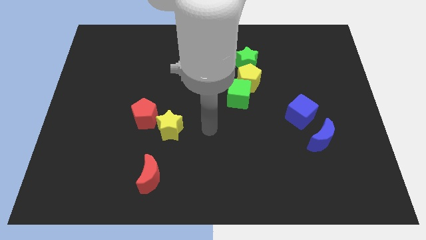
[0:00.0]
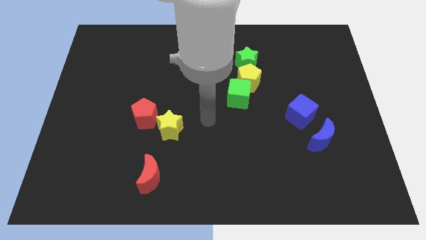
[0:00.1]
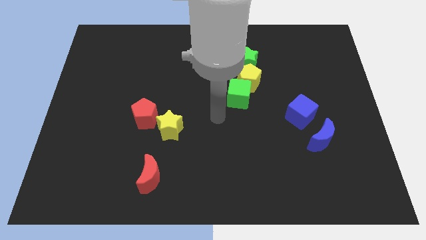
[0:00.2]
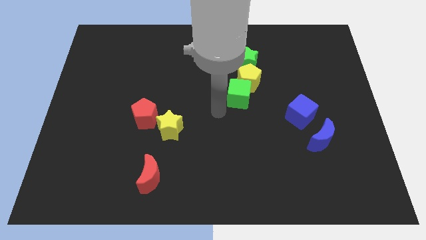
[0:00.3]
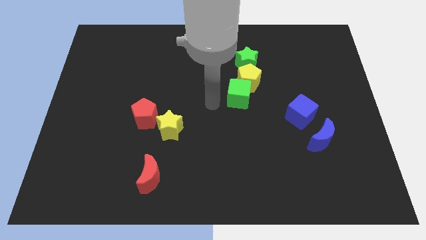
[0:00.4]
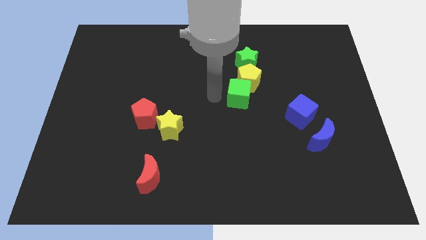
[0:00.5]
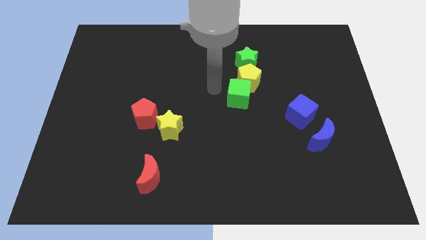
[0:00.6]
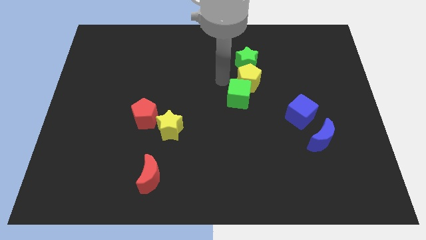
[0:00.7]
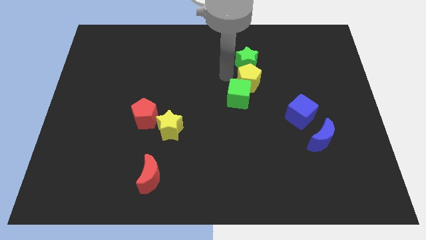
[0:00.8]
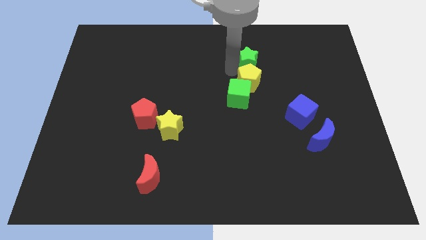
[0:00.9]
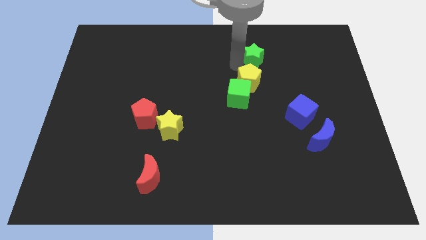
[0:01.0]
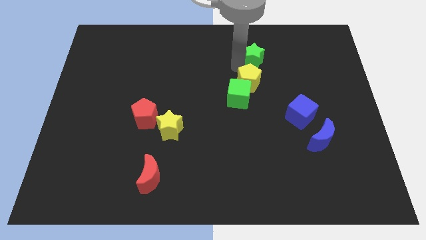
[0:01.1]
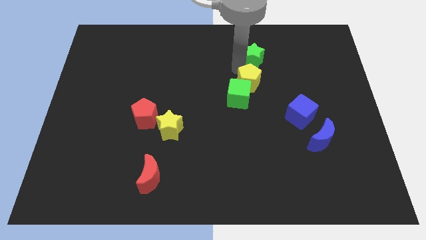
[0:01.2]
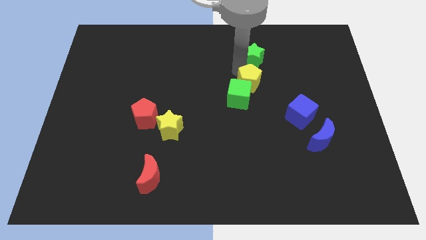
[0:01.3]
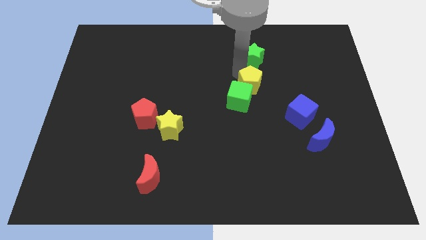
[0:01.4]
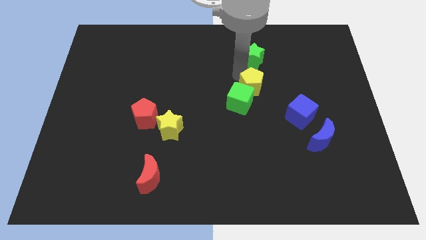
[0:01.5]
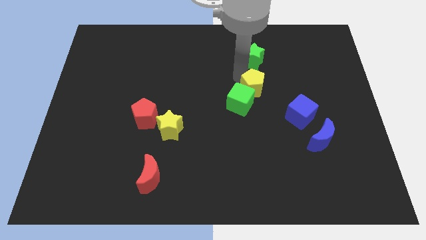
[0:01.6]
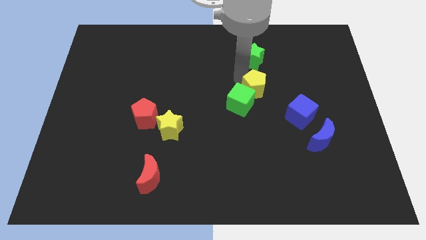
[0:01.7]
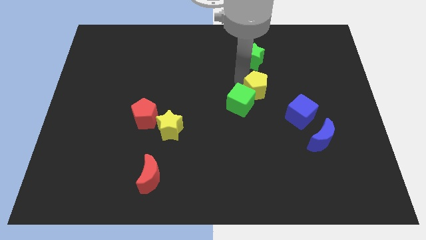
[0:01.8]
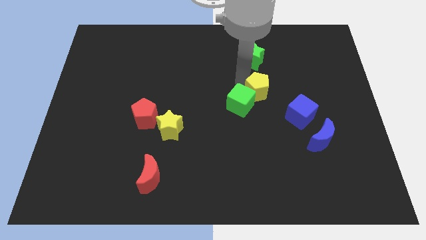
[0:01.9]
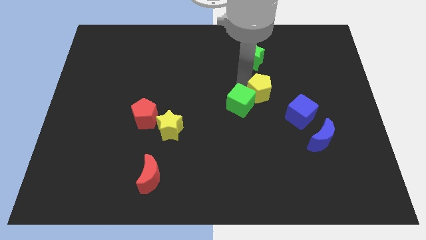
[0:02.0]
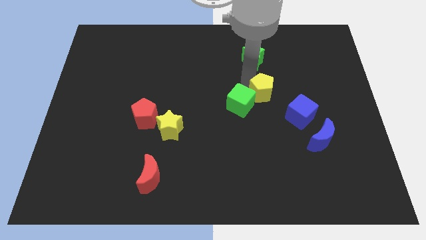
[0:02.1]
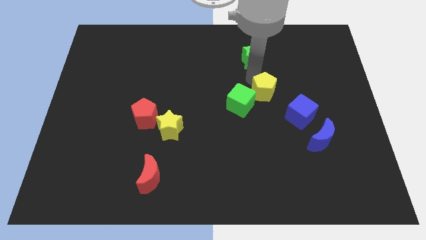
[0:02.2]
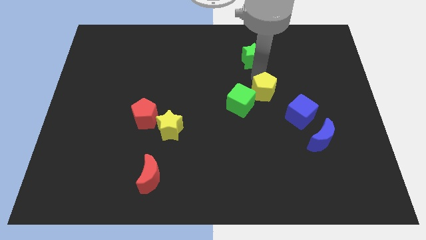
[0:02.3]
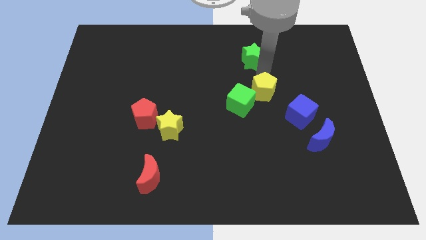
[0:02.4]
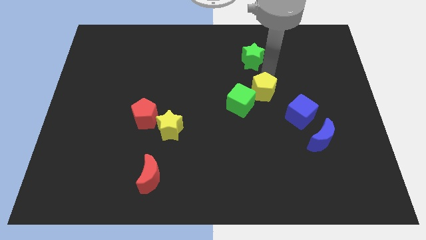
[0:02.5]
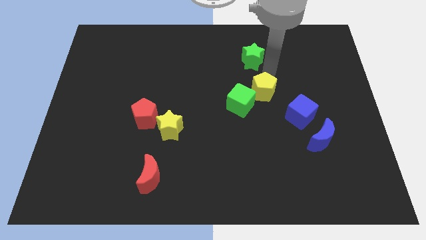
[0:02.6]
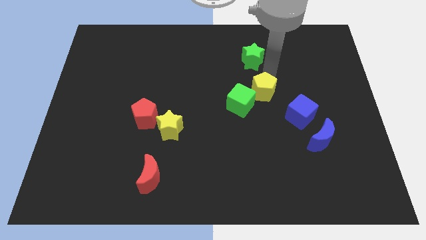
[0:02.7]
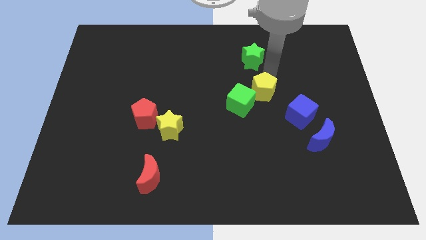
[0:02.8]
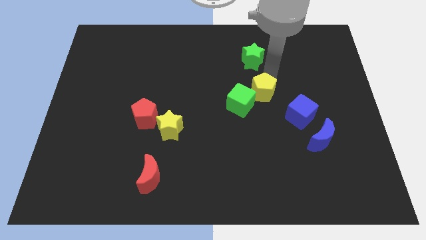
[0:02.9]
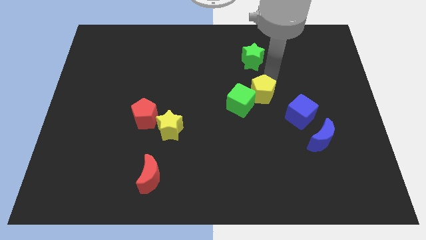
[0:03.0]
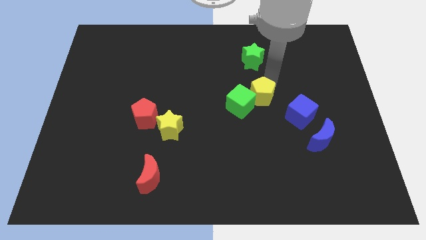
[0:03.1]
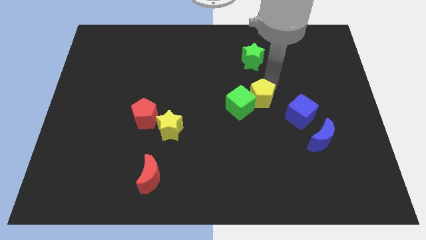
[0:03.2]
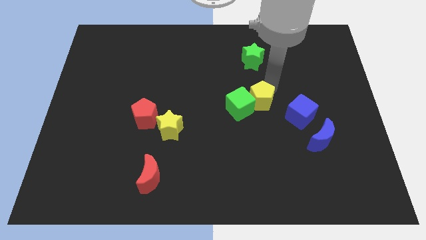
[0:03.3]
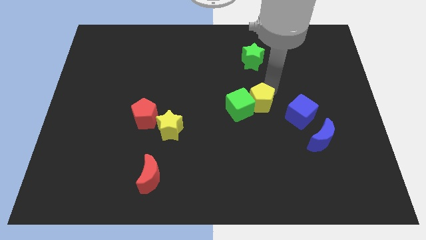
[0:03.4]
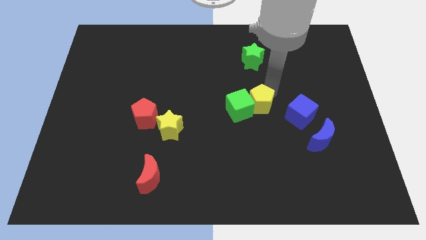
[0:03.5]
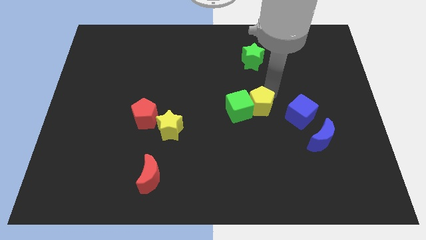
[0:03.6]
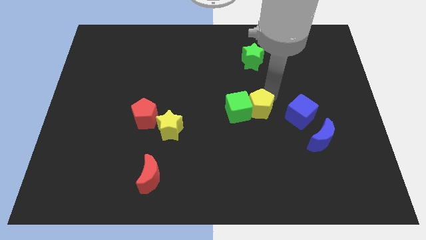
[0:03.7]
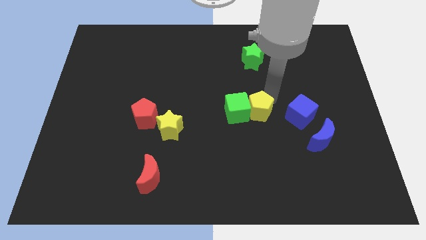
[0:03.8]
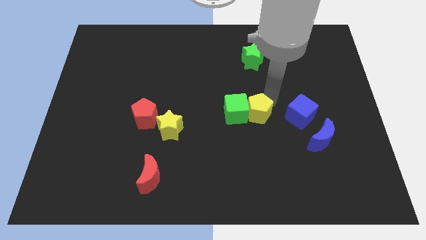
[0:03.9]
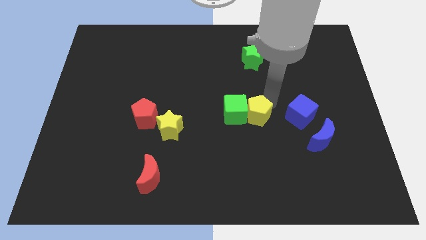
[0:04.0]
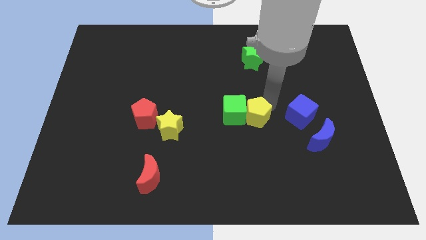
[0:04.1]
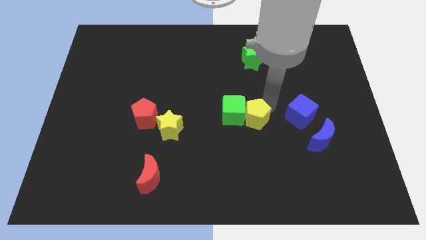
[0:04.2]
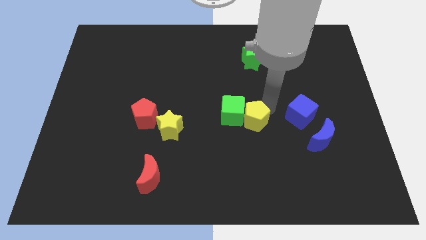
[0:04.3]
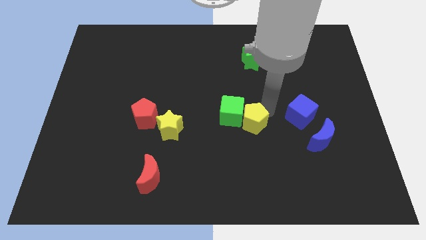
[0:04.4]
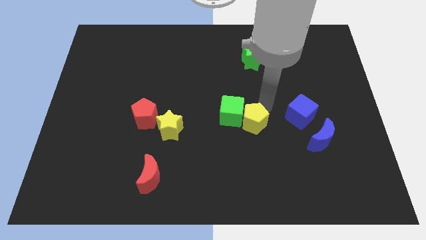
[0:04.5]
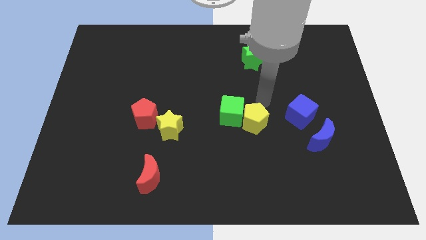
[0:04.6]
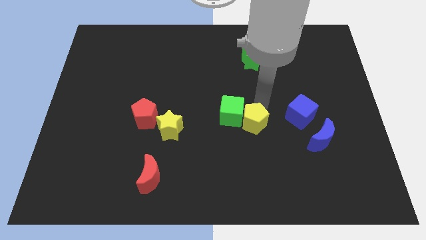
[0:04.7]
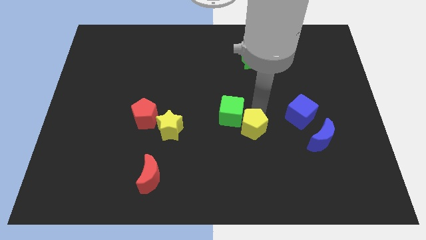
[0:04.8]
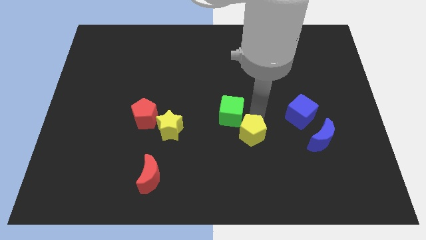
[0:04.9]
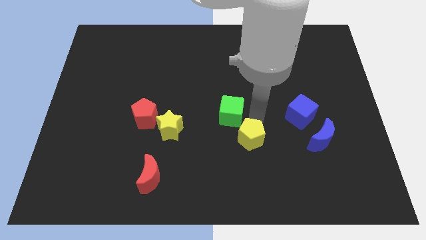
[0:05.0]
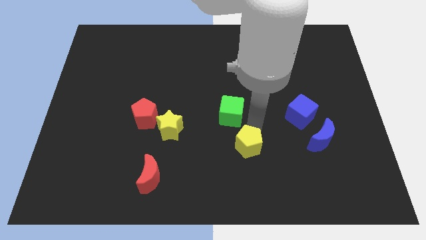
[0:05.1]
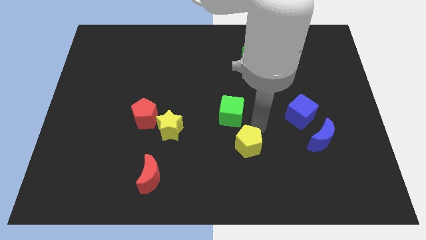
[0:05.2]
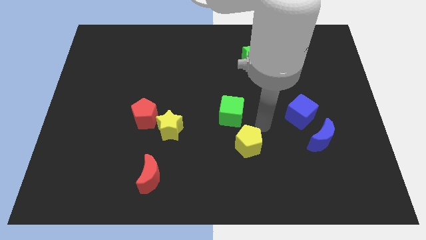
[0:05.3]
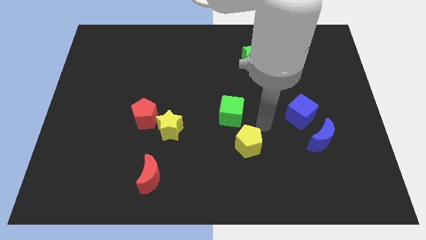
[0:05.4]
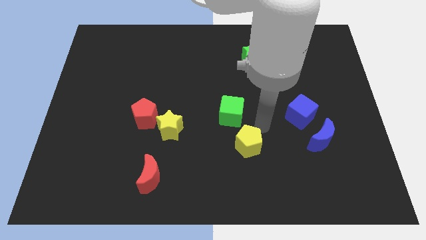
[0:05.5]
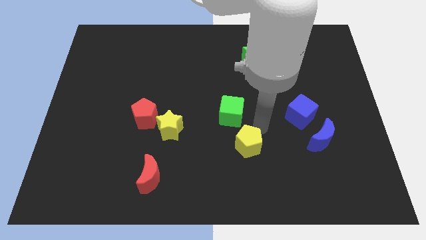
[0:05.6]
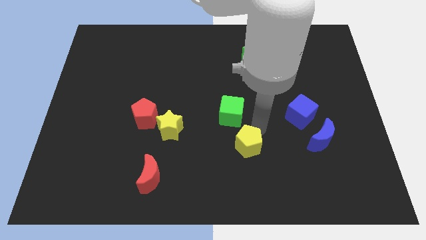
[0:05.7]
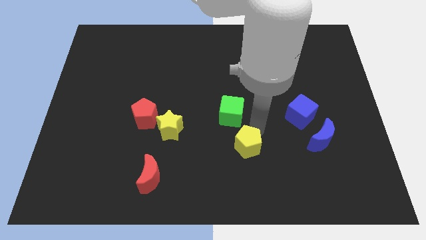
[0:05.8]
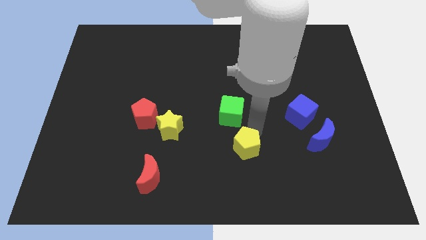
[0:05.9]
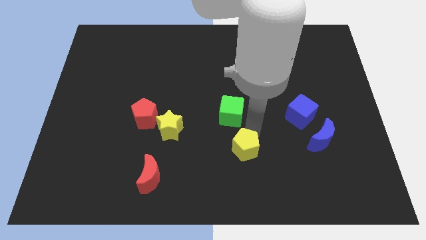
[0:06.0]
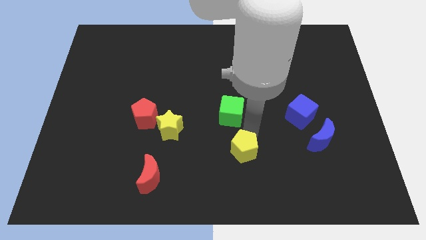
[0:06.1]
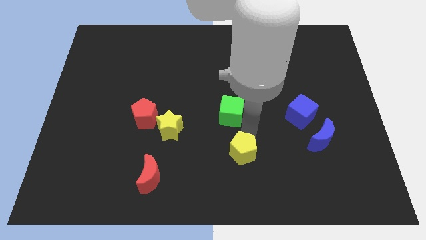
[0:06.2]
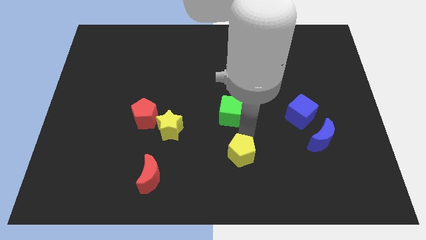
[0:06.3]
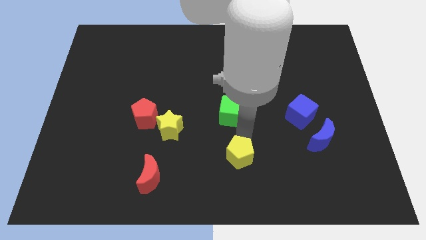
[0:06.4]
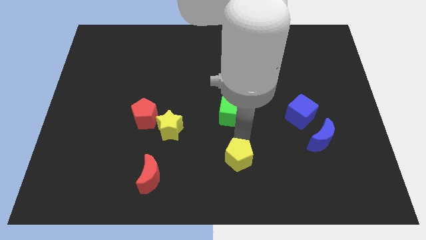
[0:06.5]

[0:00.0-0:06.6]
put the yellow pentagon to the bottom
